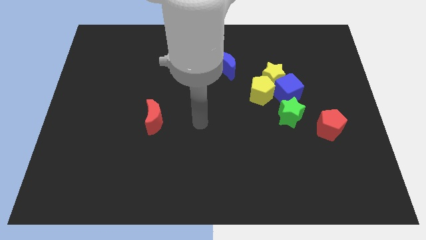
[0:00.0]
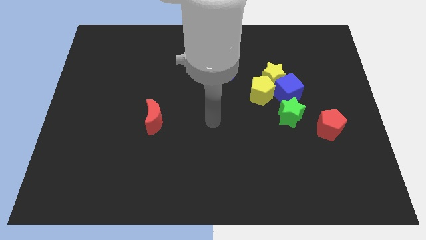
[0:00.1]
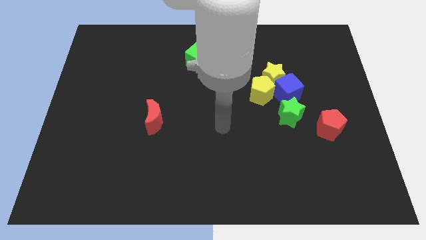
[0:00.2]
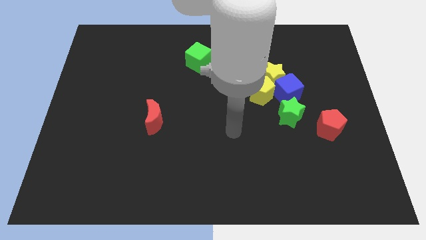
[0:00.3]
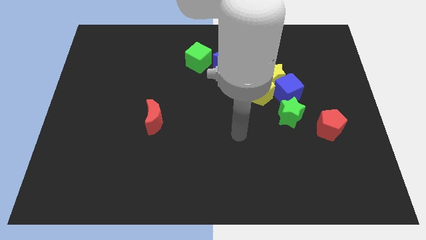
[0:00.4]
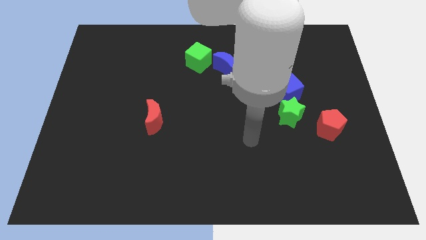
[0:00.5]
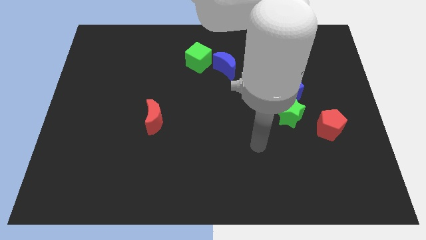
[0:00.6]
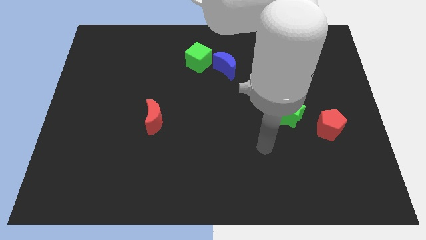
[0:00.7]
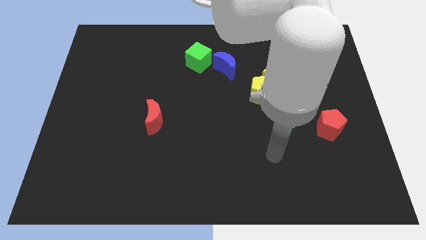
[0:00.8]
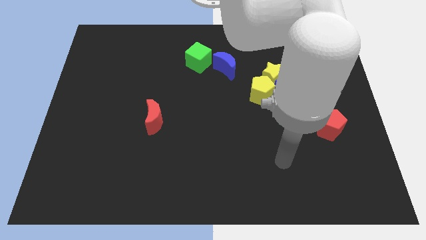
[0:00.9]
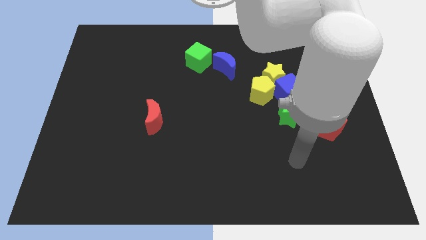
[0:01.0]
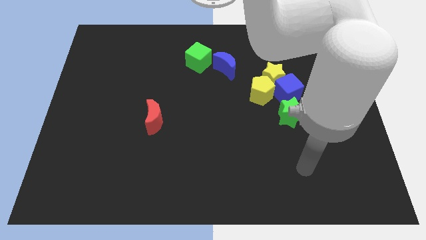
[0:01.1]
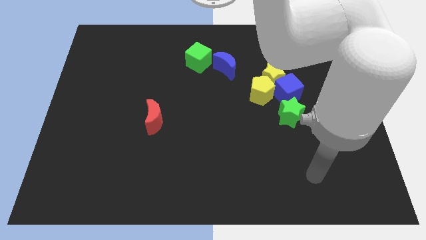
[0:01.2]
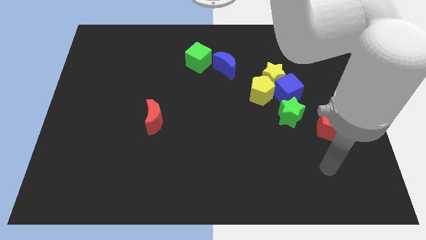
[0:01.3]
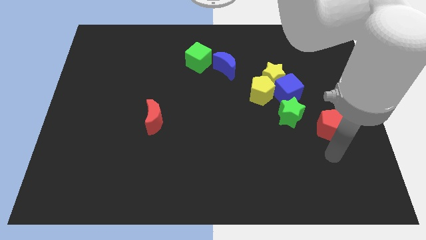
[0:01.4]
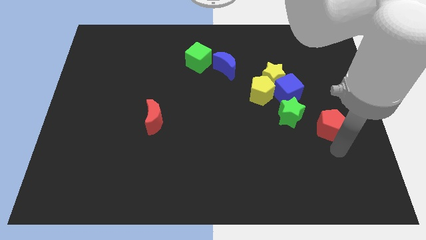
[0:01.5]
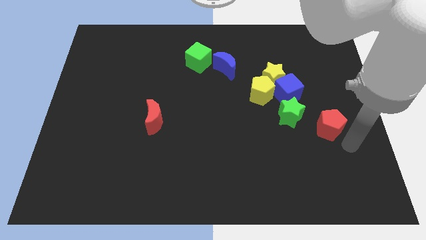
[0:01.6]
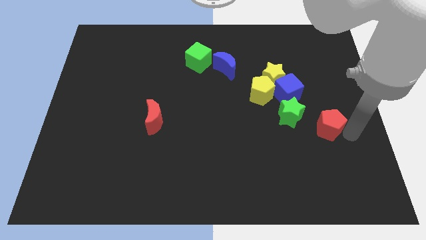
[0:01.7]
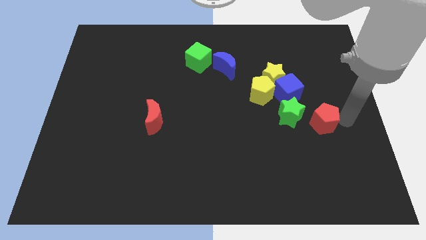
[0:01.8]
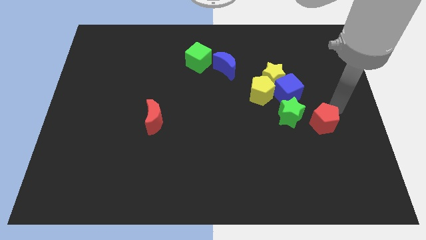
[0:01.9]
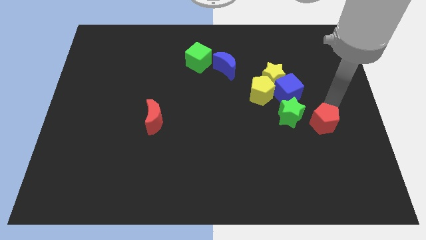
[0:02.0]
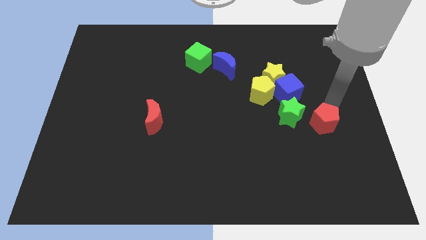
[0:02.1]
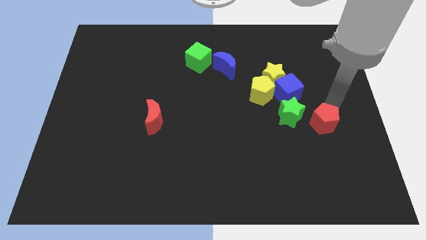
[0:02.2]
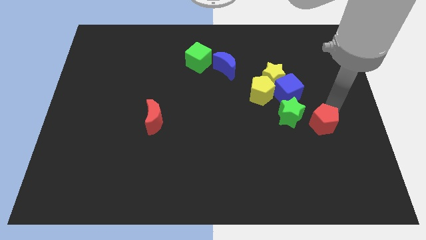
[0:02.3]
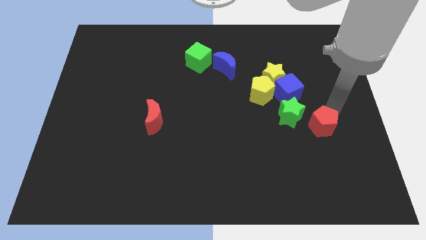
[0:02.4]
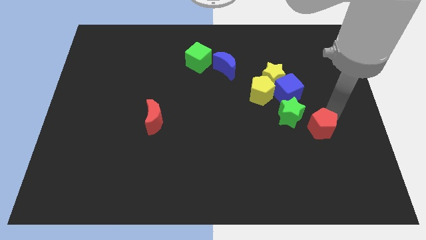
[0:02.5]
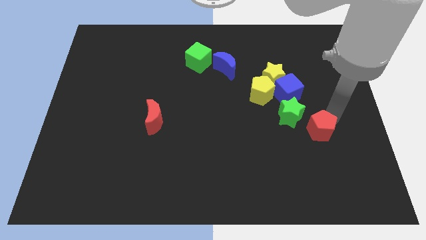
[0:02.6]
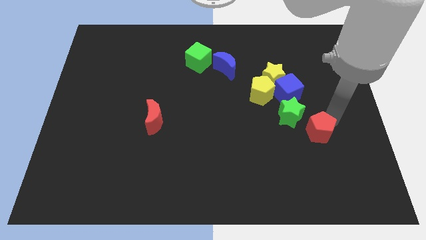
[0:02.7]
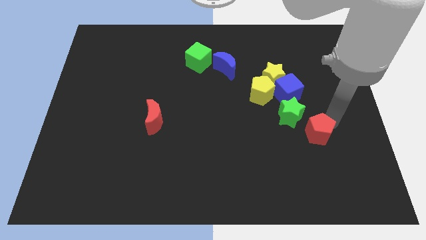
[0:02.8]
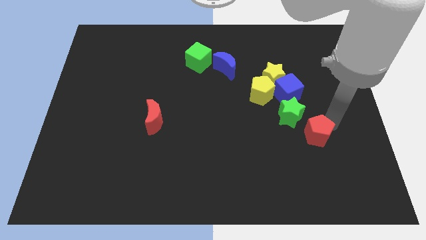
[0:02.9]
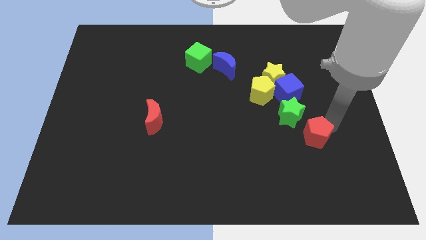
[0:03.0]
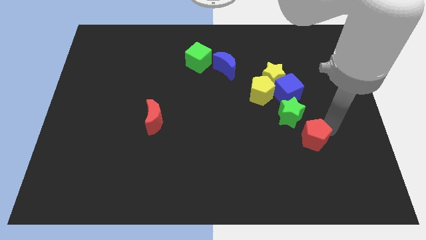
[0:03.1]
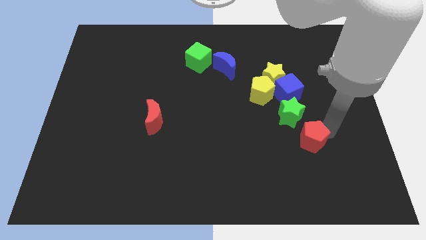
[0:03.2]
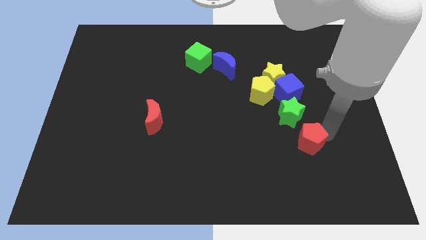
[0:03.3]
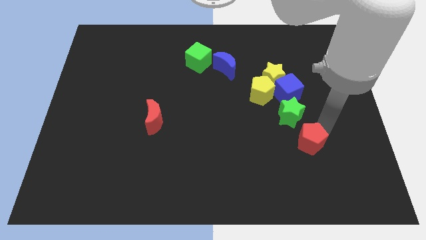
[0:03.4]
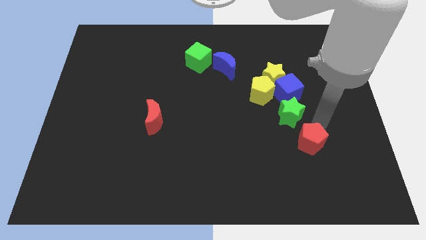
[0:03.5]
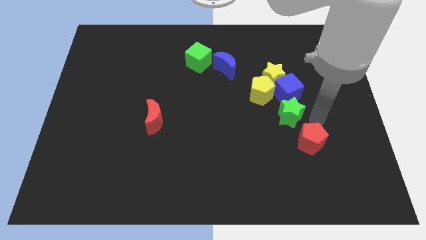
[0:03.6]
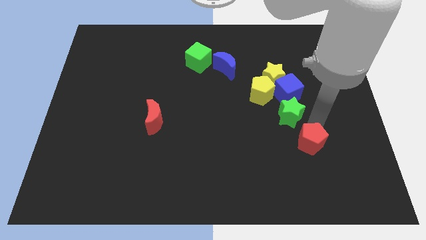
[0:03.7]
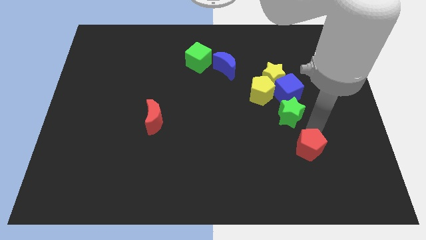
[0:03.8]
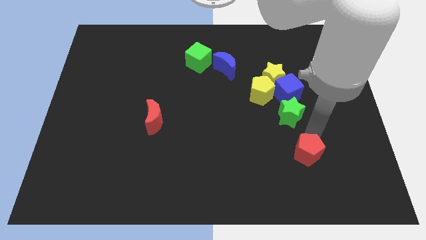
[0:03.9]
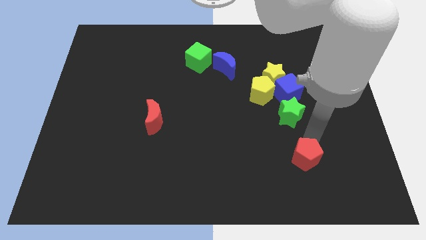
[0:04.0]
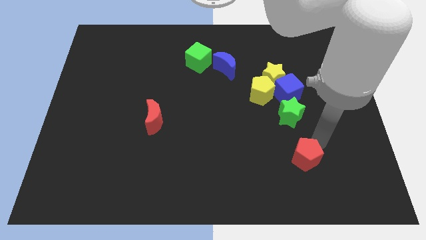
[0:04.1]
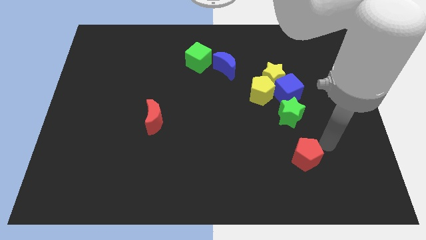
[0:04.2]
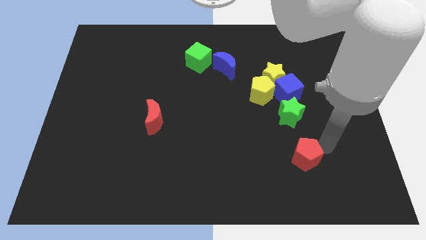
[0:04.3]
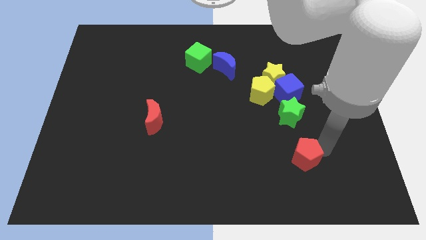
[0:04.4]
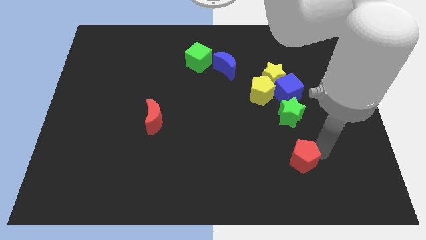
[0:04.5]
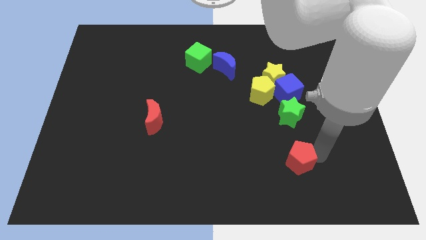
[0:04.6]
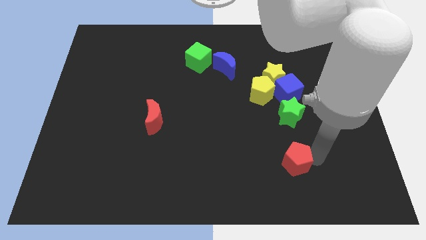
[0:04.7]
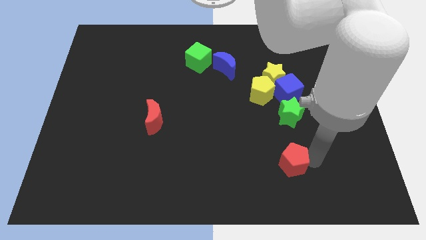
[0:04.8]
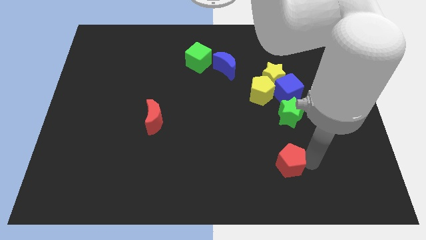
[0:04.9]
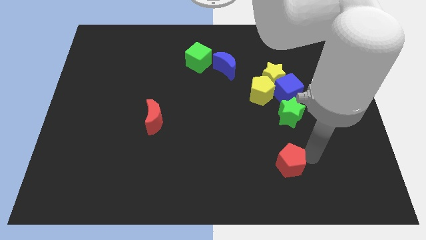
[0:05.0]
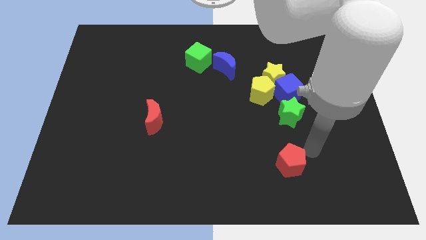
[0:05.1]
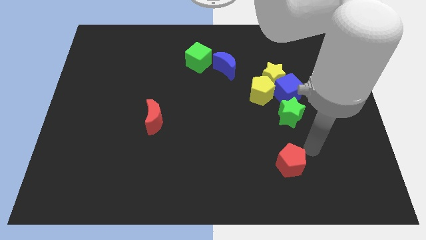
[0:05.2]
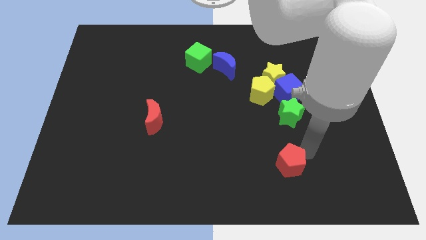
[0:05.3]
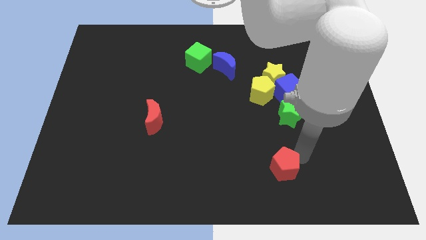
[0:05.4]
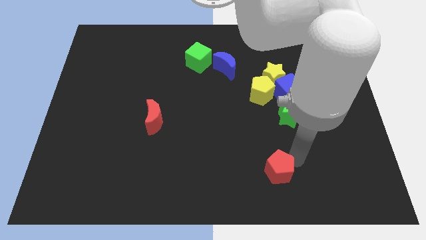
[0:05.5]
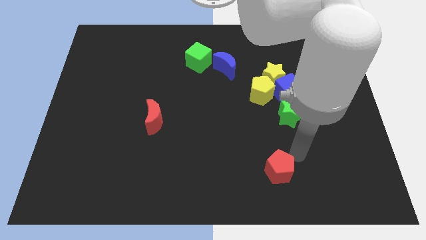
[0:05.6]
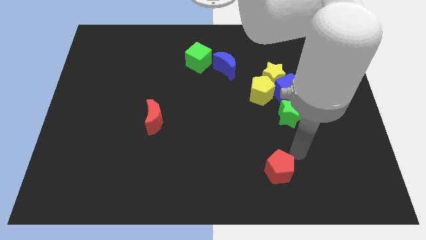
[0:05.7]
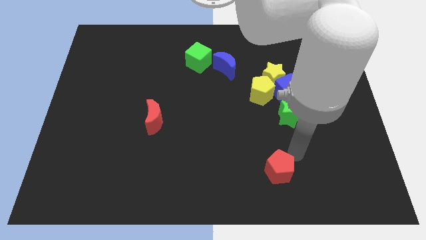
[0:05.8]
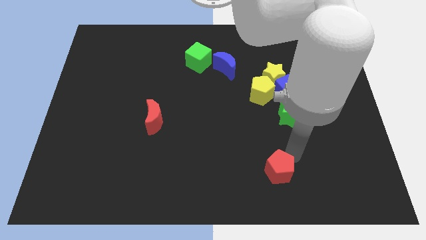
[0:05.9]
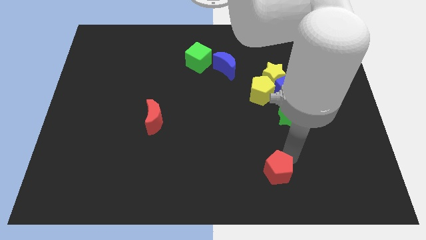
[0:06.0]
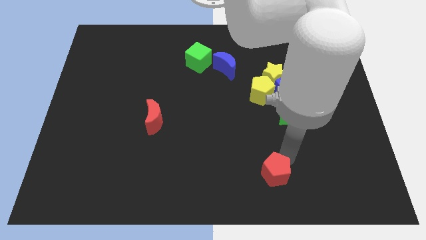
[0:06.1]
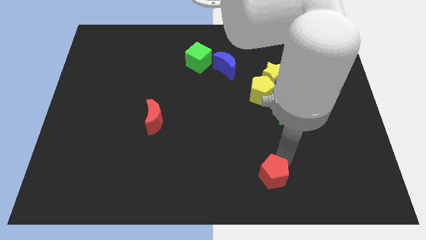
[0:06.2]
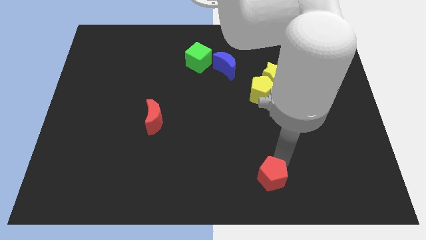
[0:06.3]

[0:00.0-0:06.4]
push the red pentagon to the bottom side
